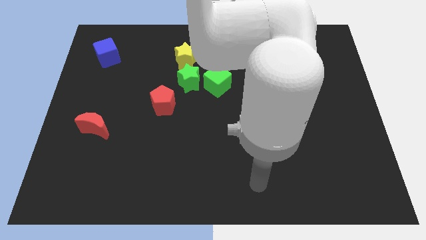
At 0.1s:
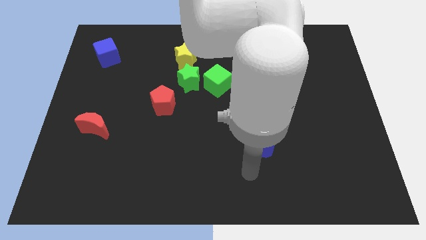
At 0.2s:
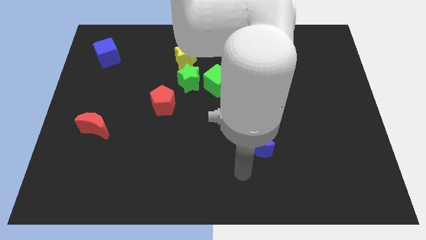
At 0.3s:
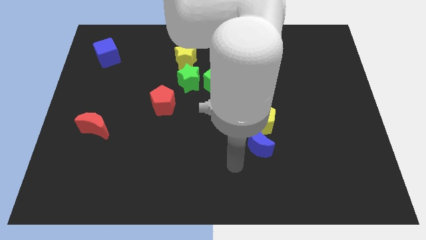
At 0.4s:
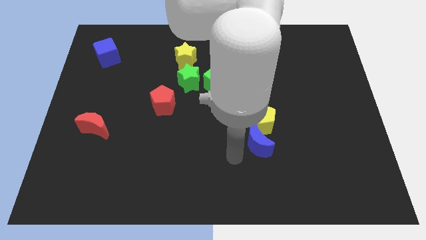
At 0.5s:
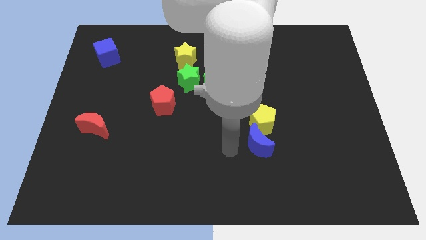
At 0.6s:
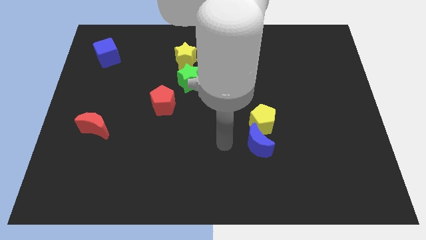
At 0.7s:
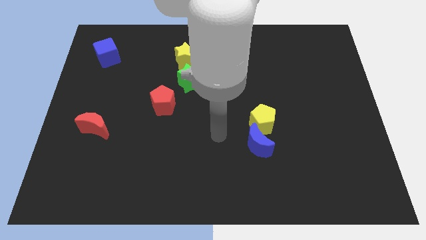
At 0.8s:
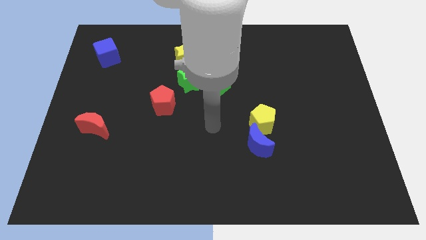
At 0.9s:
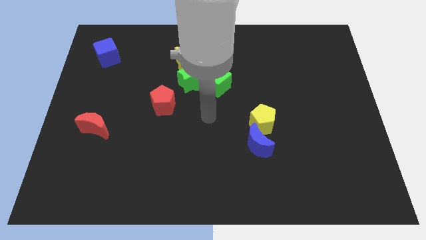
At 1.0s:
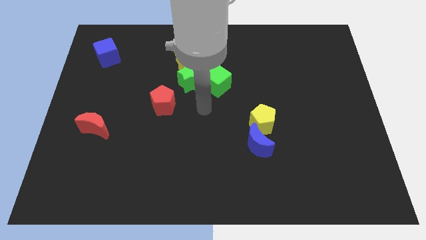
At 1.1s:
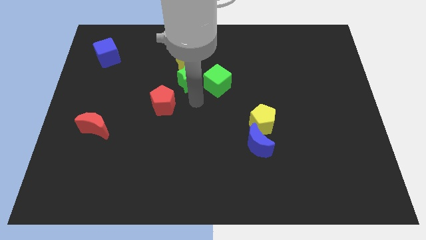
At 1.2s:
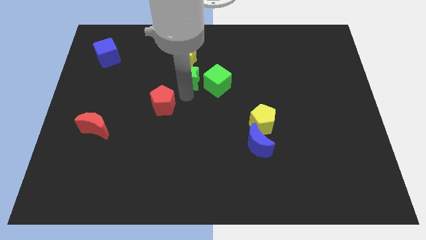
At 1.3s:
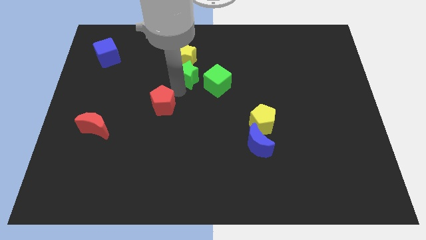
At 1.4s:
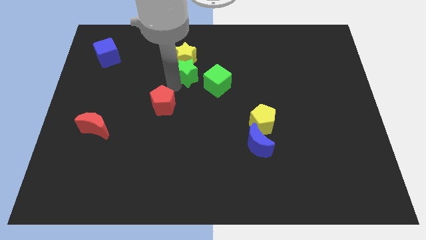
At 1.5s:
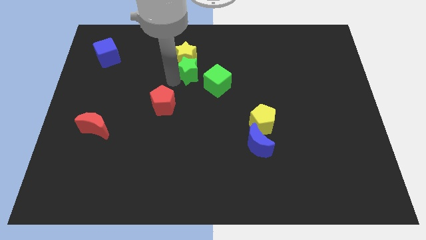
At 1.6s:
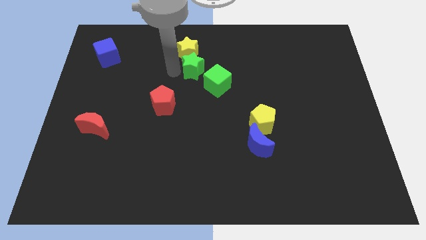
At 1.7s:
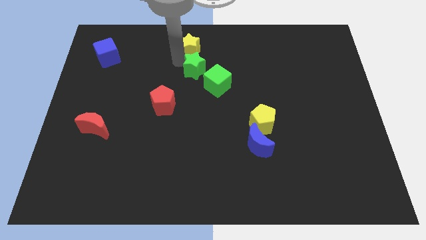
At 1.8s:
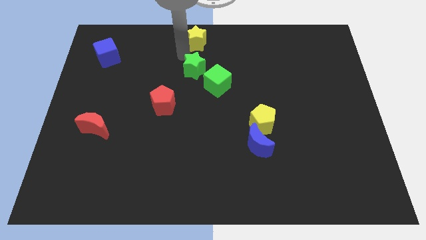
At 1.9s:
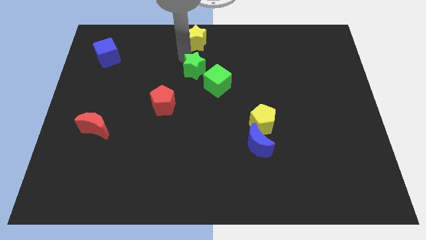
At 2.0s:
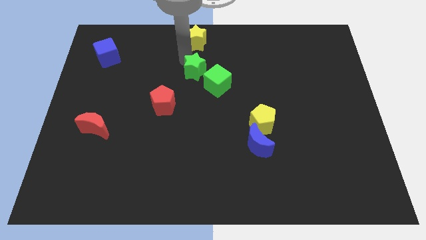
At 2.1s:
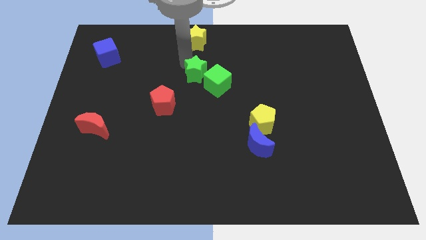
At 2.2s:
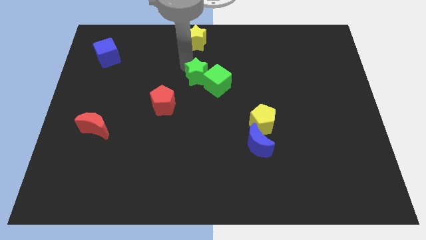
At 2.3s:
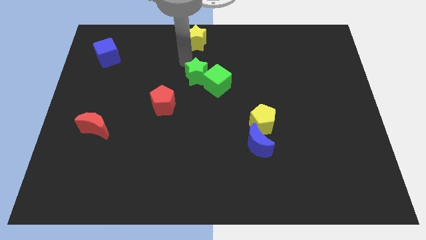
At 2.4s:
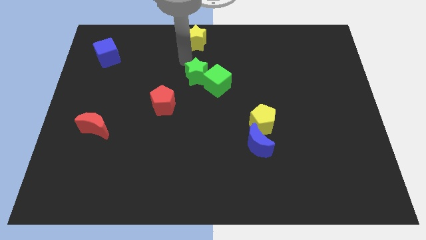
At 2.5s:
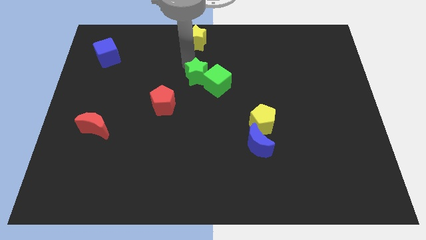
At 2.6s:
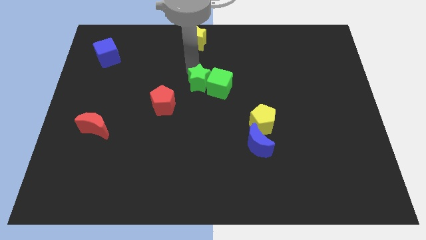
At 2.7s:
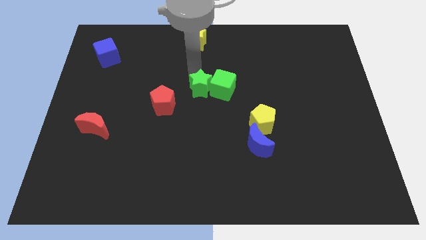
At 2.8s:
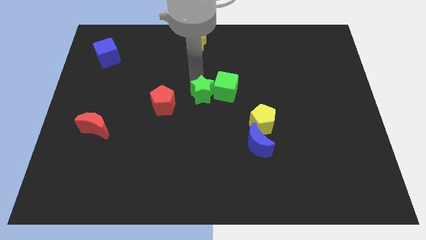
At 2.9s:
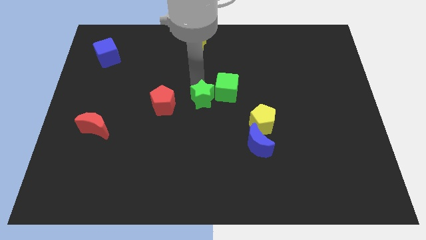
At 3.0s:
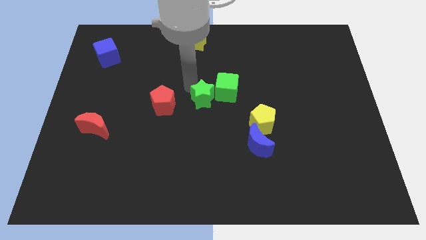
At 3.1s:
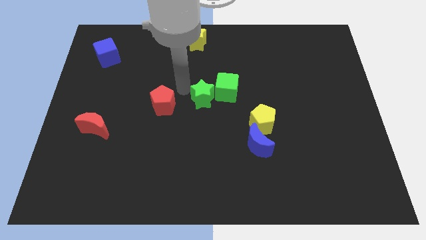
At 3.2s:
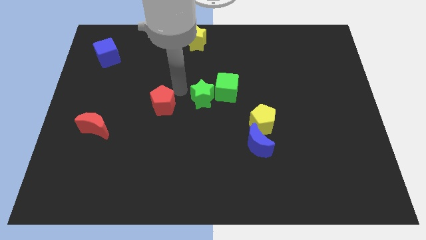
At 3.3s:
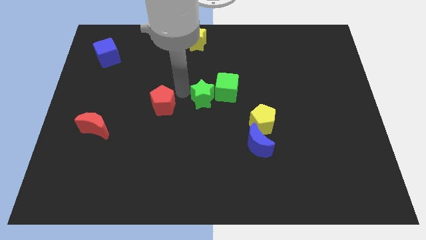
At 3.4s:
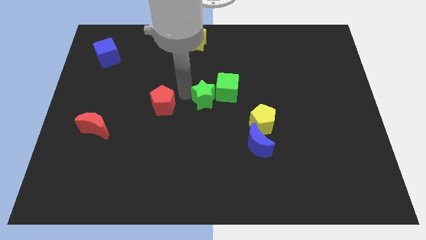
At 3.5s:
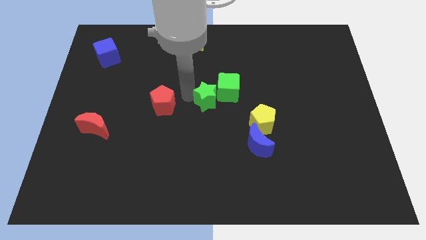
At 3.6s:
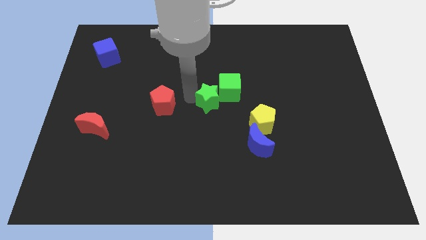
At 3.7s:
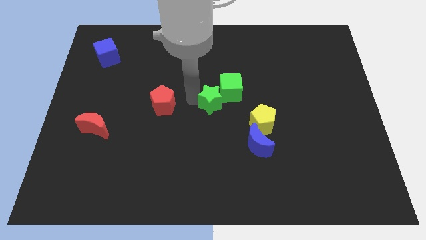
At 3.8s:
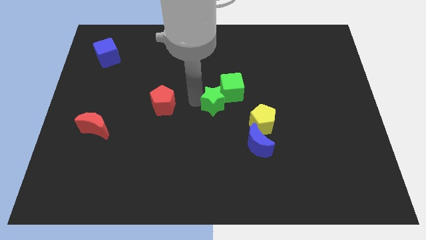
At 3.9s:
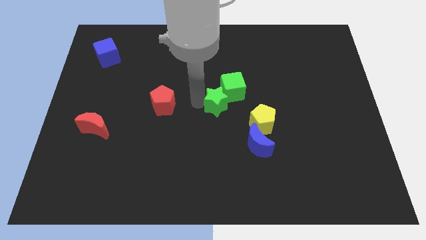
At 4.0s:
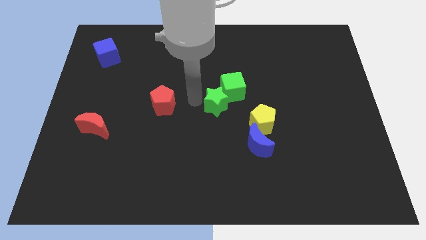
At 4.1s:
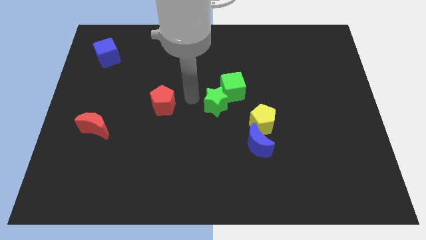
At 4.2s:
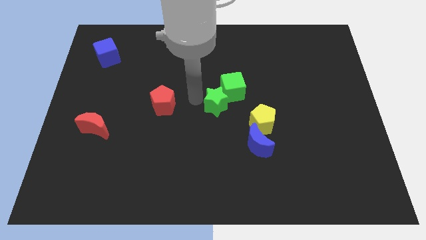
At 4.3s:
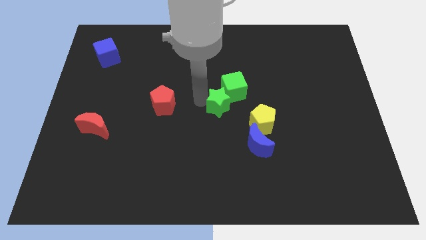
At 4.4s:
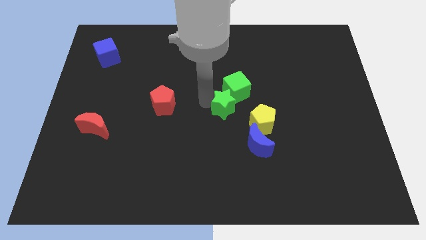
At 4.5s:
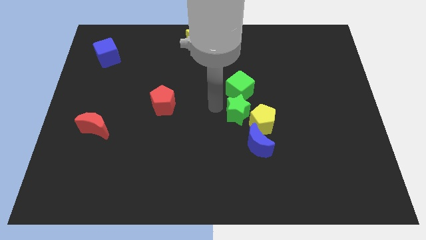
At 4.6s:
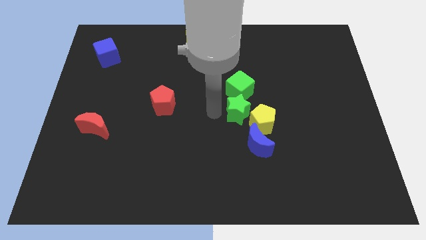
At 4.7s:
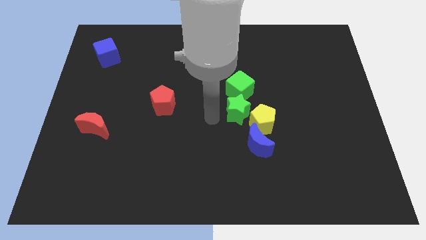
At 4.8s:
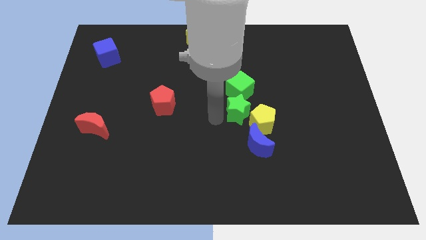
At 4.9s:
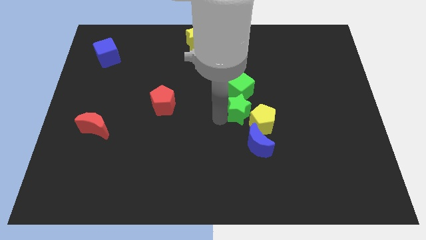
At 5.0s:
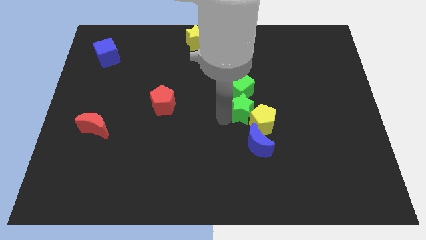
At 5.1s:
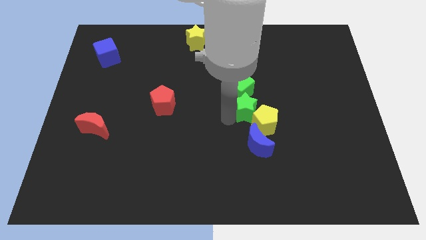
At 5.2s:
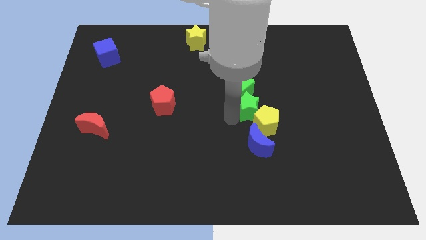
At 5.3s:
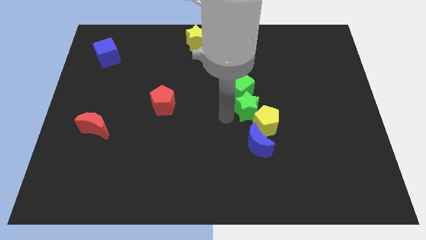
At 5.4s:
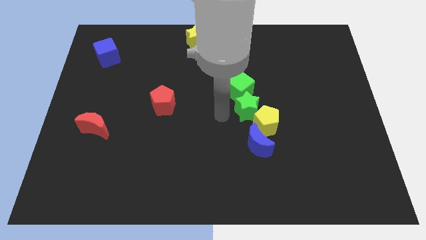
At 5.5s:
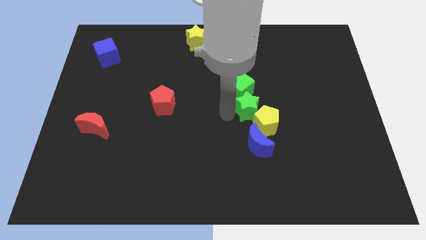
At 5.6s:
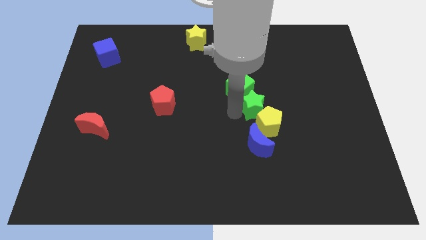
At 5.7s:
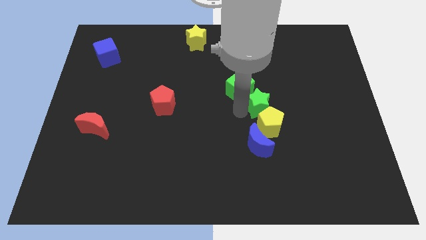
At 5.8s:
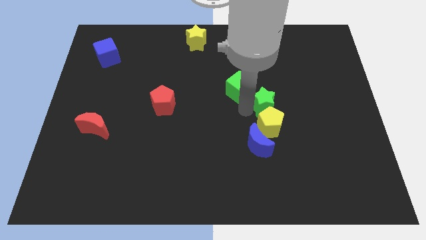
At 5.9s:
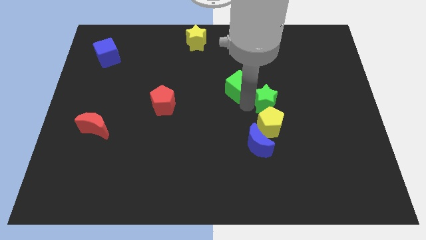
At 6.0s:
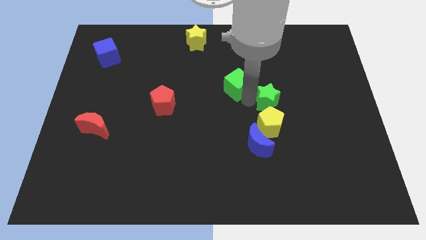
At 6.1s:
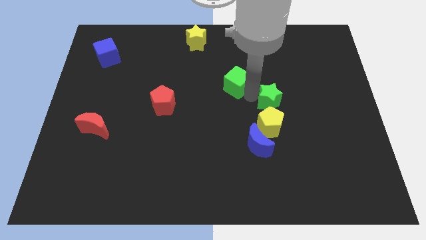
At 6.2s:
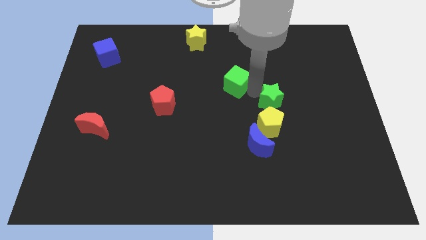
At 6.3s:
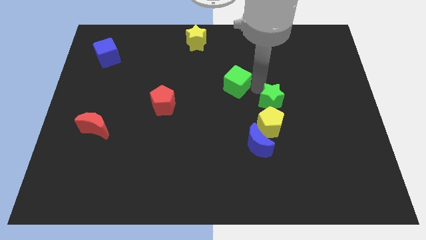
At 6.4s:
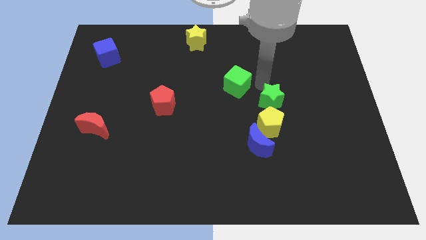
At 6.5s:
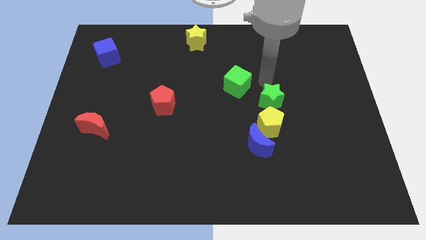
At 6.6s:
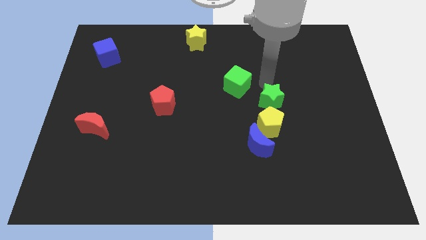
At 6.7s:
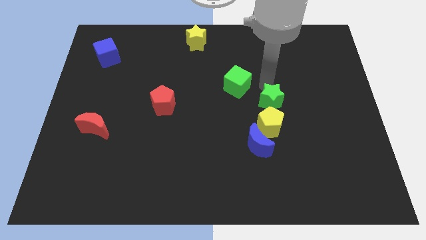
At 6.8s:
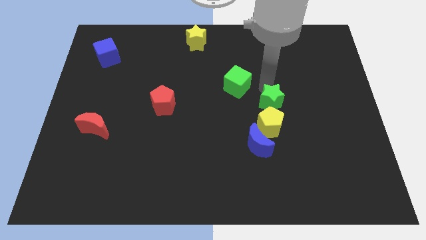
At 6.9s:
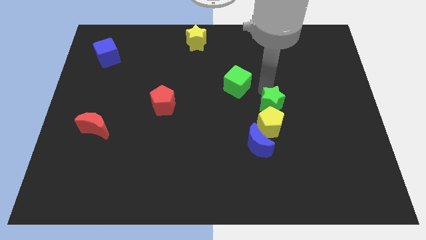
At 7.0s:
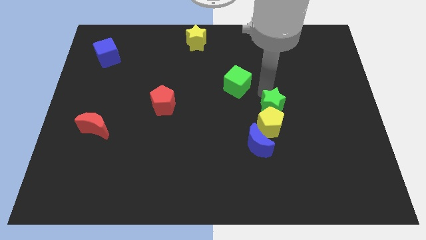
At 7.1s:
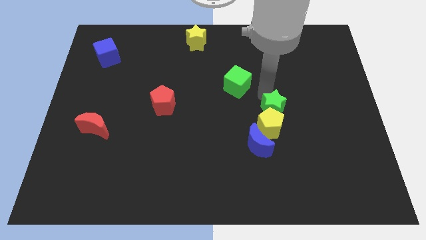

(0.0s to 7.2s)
put the green star to the top right of the blue moon

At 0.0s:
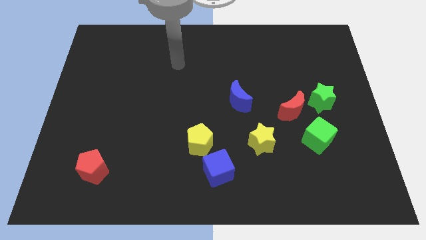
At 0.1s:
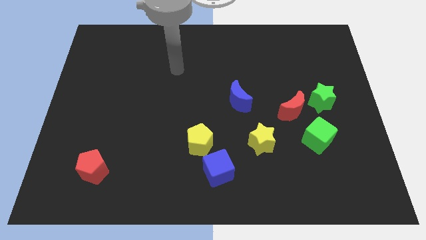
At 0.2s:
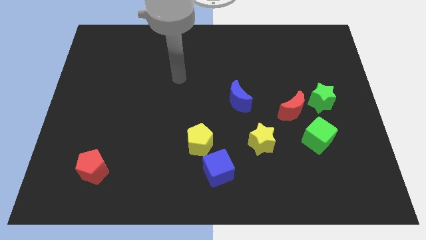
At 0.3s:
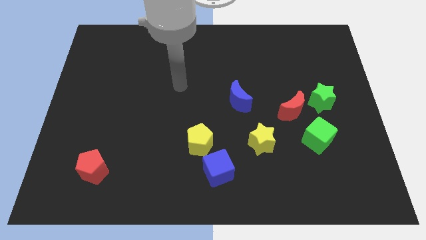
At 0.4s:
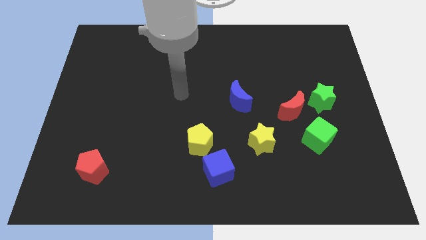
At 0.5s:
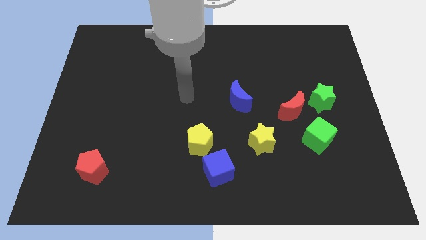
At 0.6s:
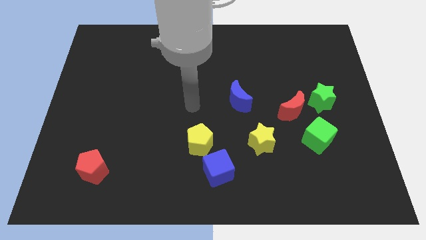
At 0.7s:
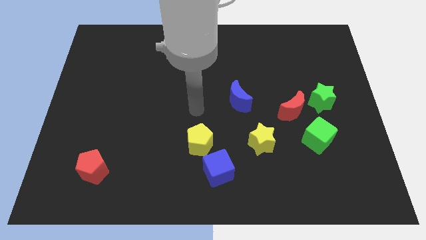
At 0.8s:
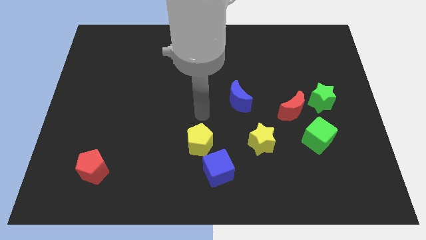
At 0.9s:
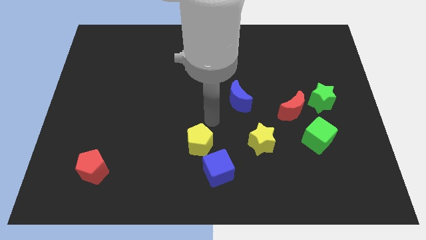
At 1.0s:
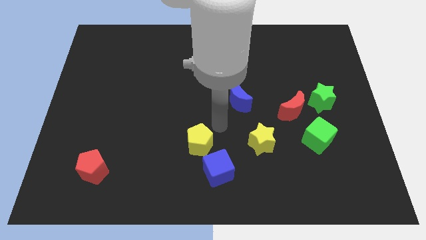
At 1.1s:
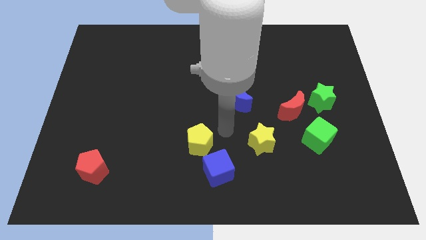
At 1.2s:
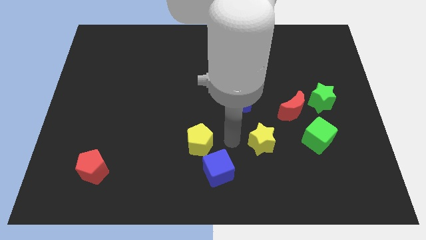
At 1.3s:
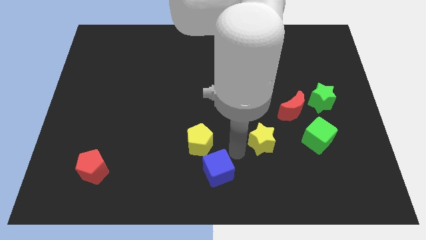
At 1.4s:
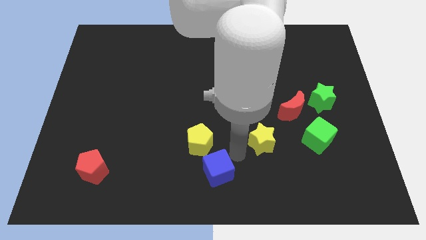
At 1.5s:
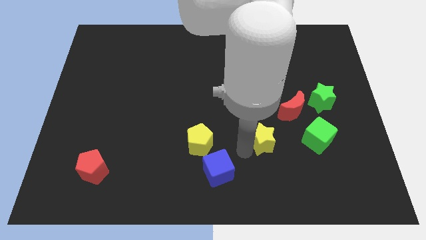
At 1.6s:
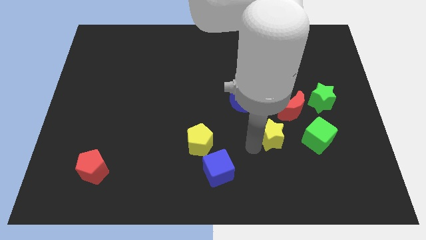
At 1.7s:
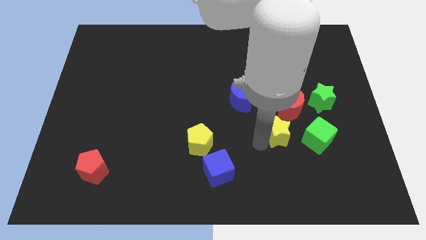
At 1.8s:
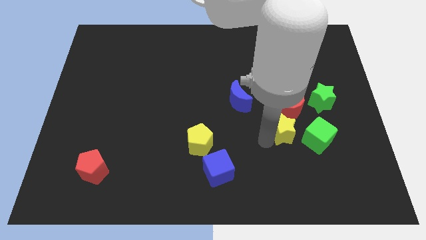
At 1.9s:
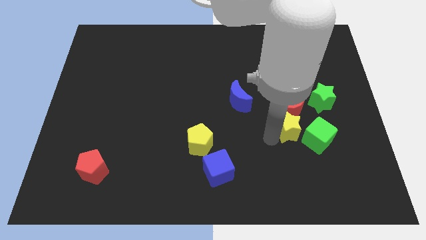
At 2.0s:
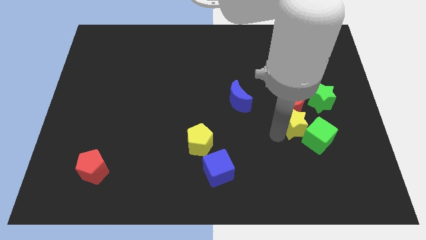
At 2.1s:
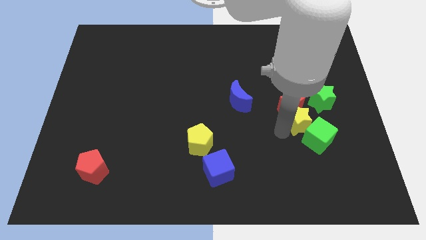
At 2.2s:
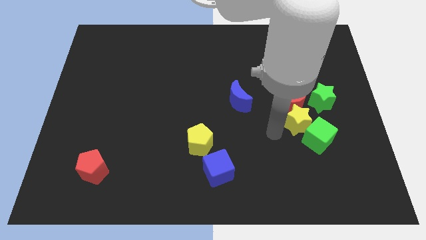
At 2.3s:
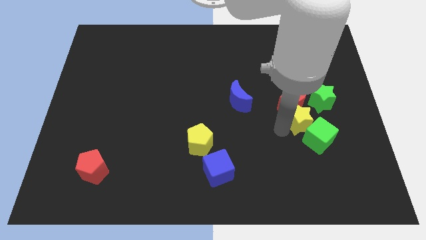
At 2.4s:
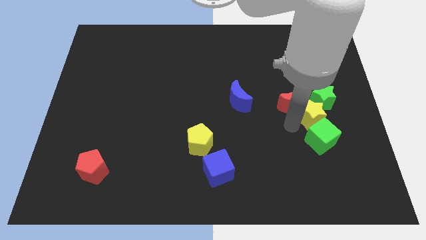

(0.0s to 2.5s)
move the yellow star right of the red moon
